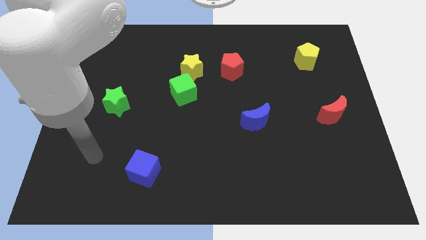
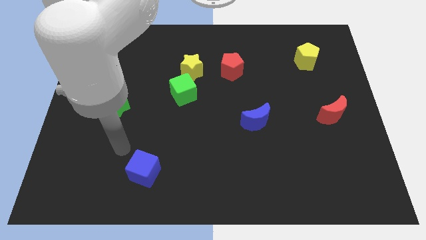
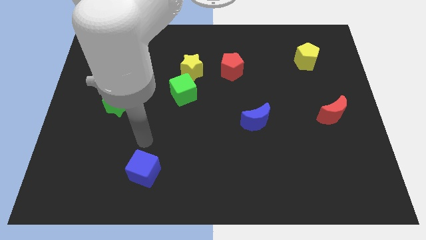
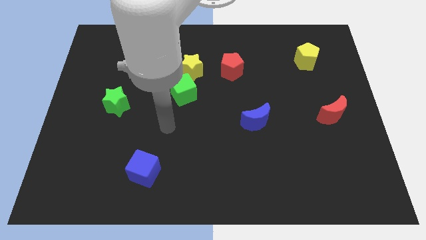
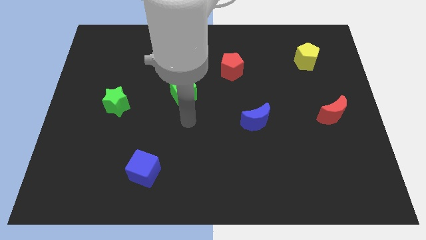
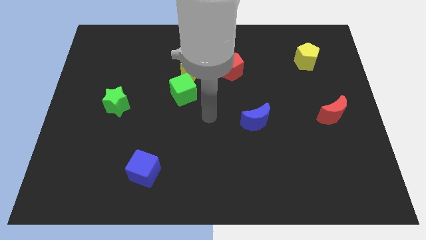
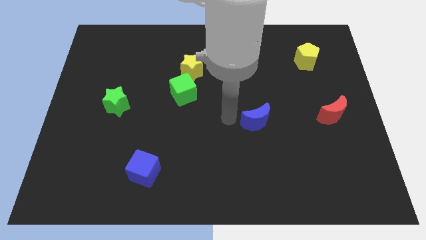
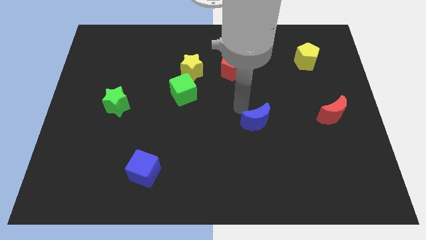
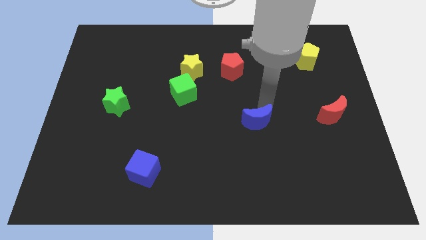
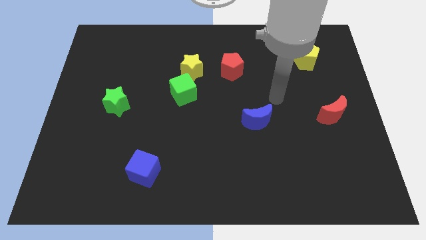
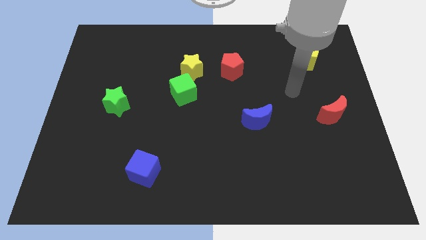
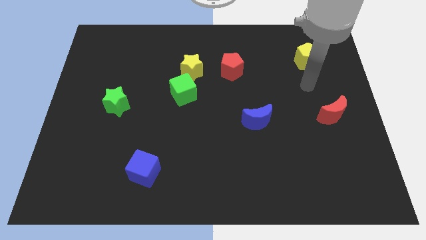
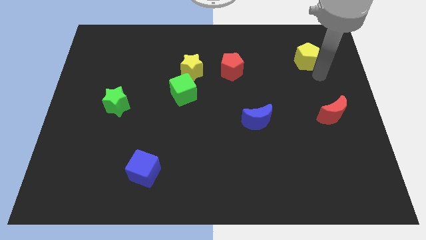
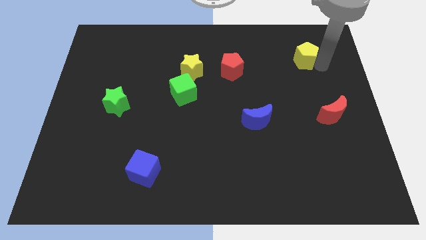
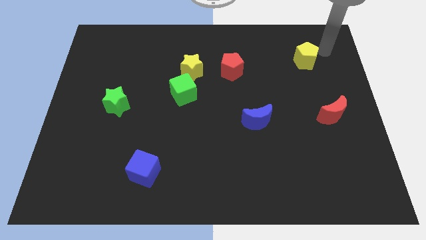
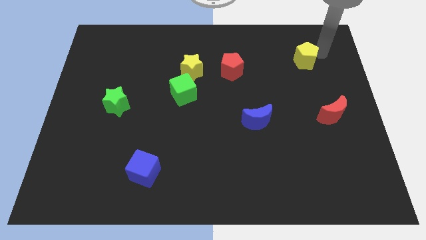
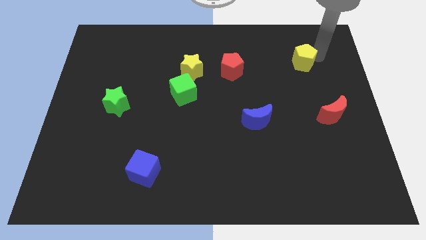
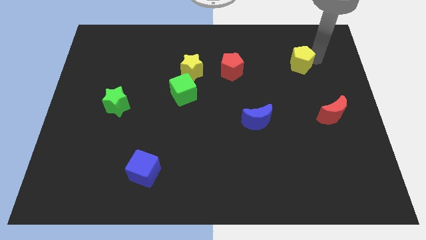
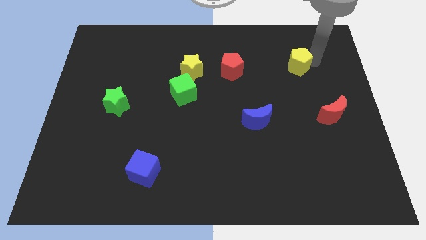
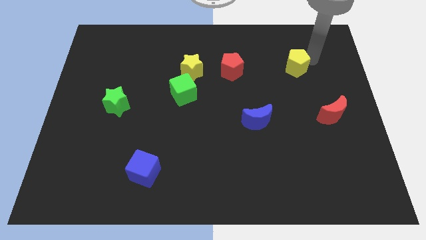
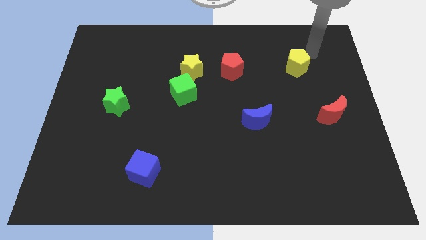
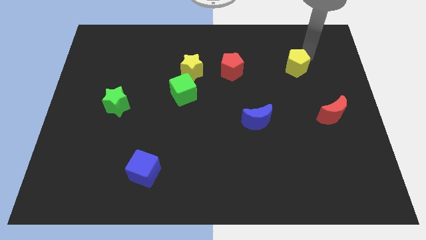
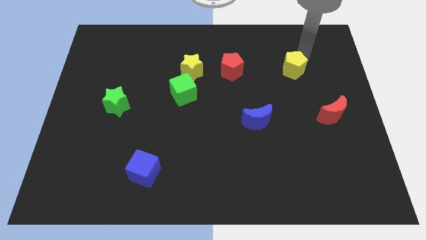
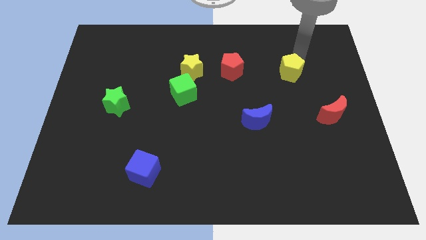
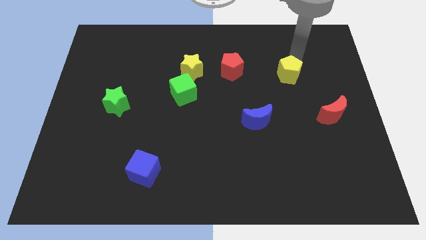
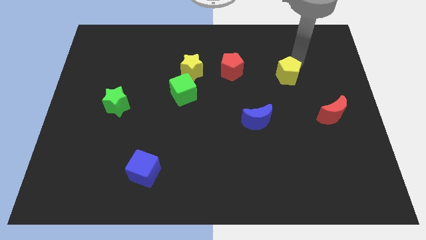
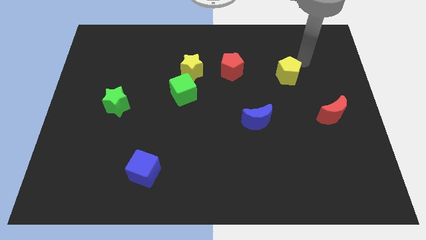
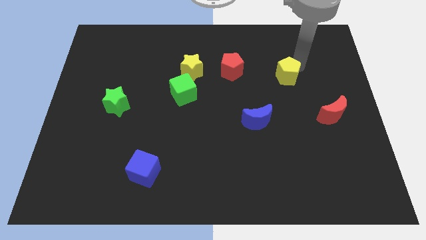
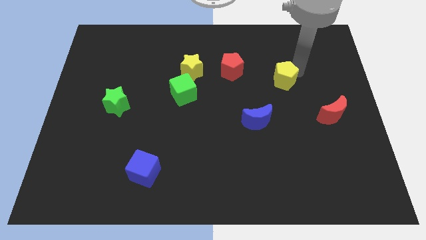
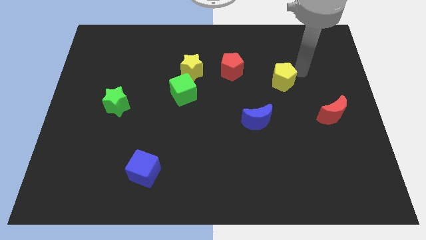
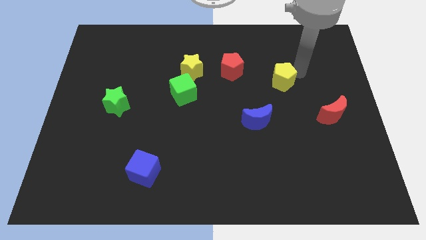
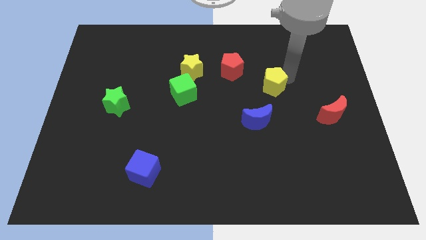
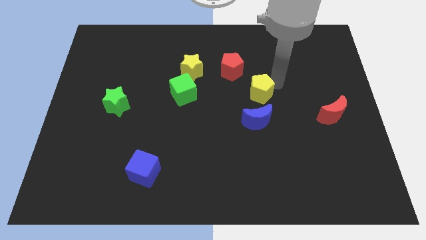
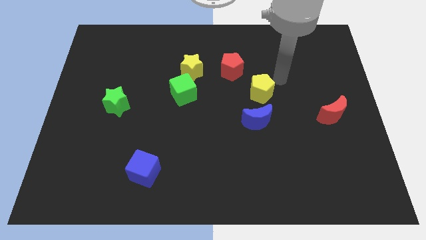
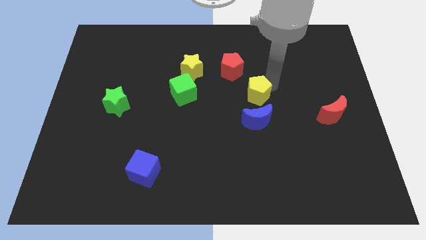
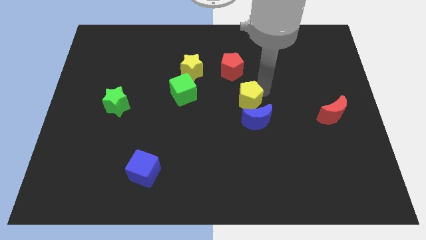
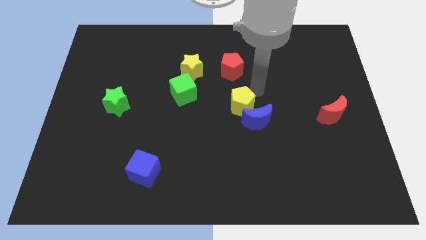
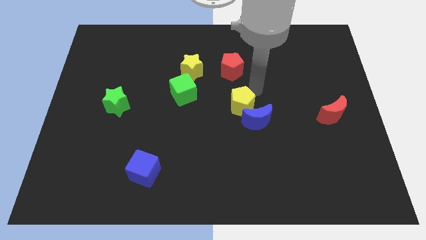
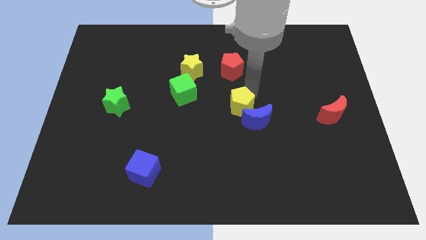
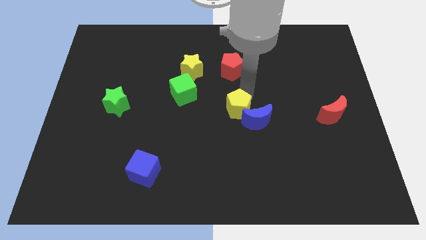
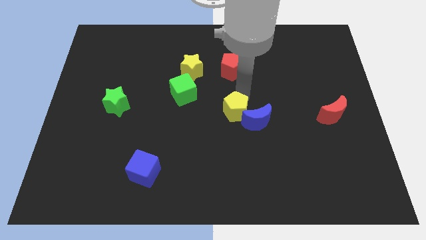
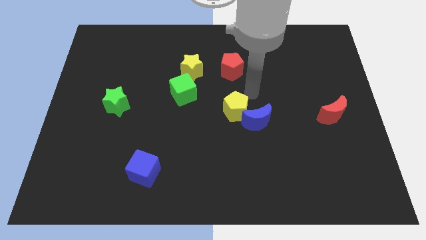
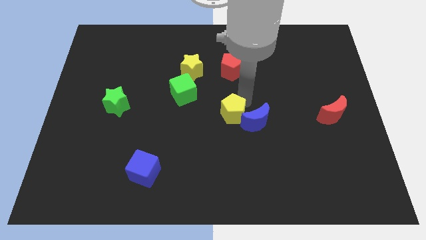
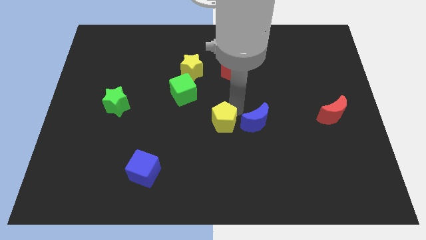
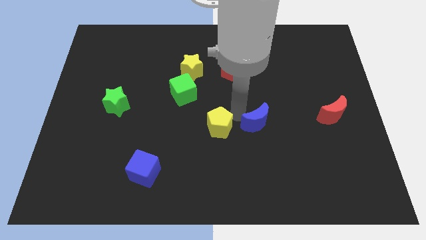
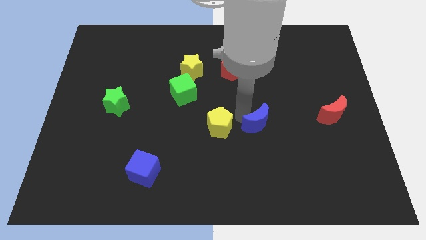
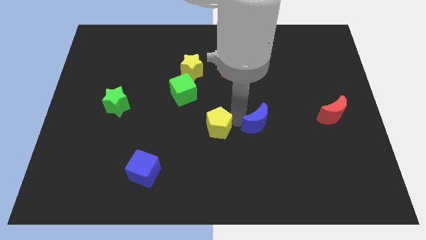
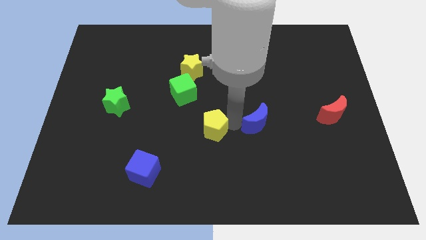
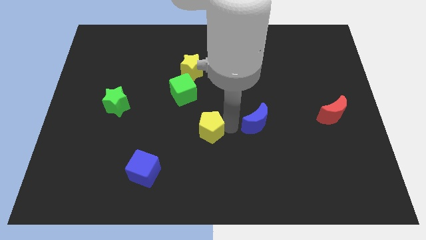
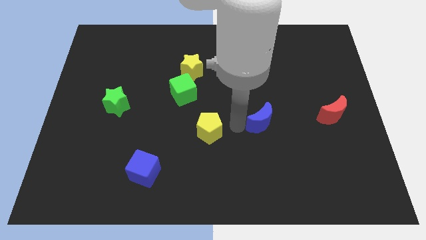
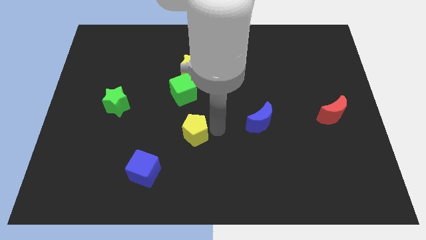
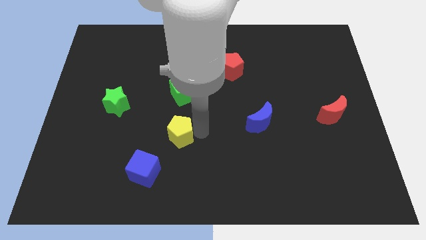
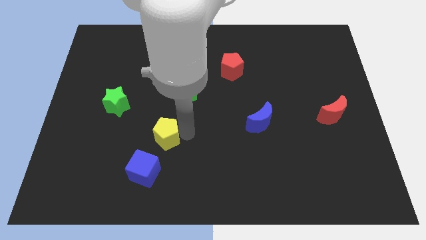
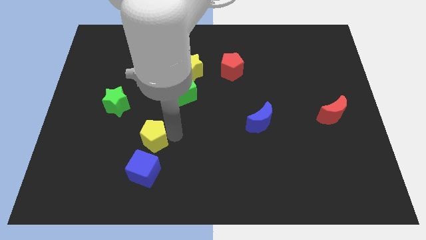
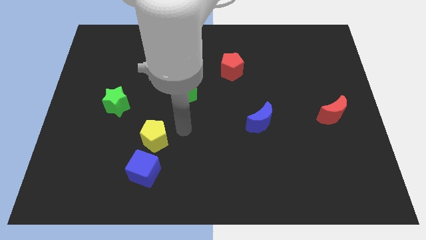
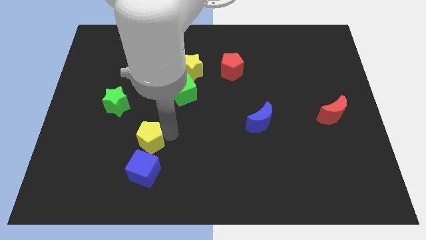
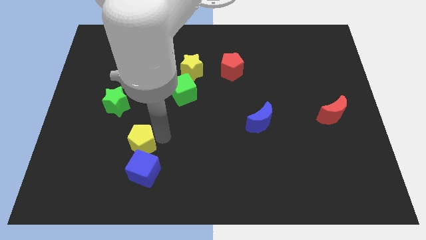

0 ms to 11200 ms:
slide the yellow pentagon diagonally up and to the left of the blue cube

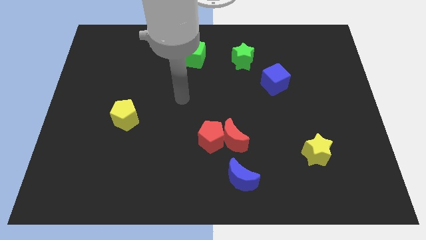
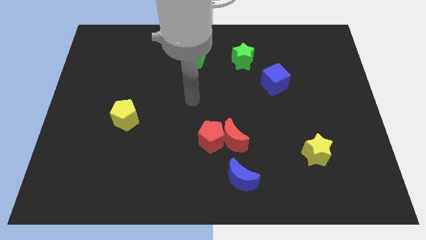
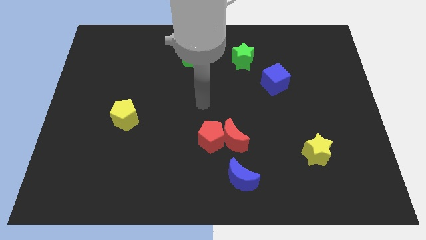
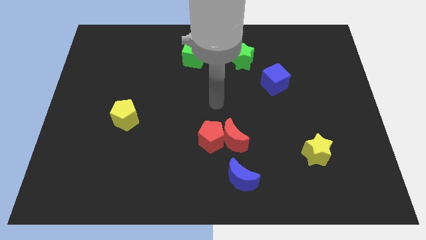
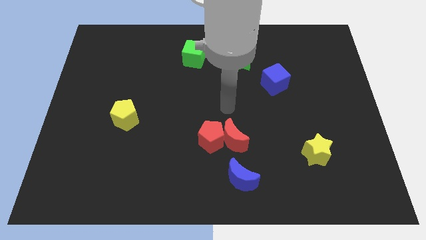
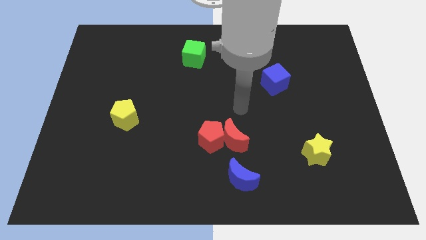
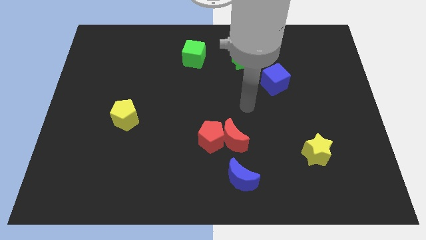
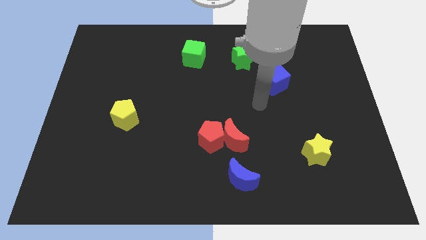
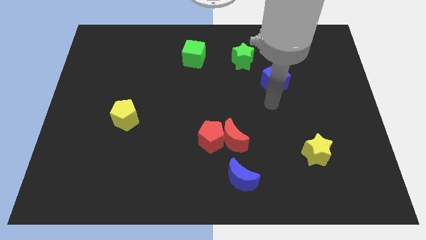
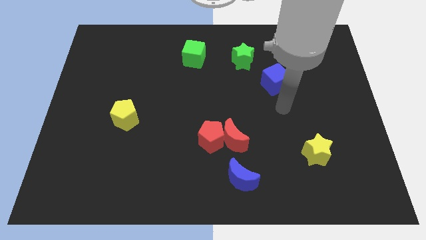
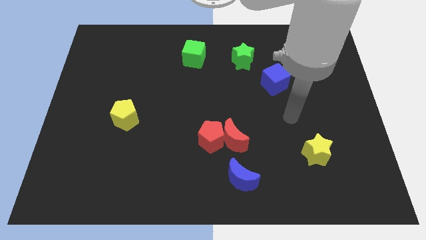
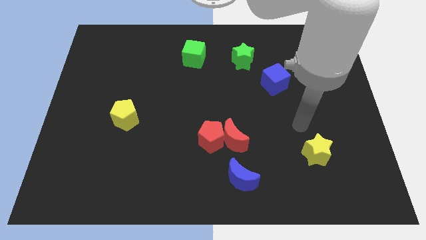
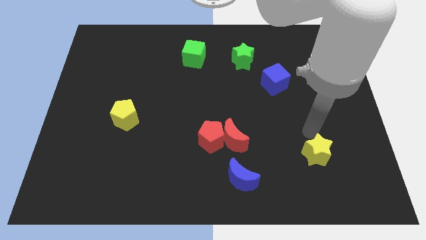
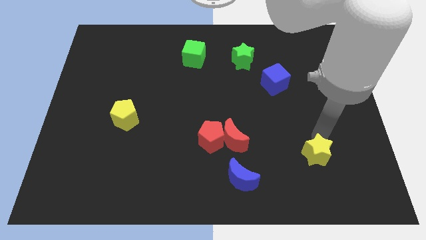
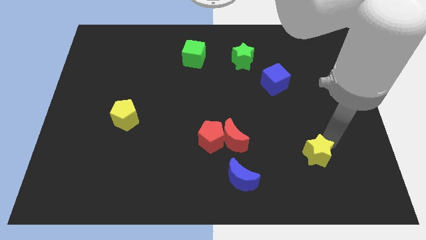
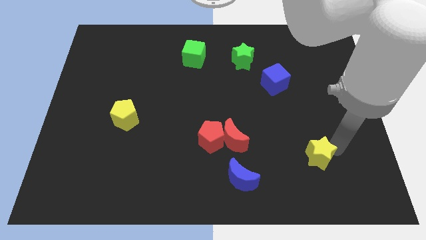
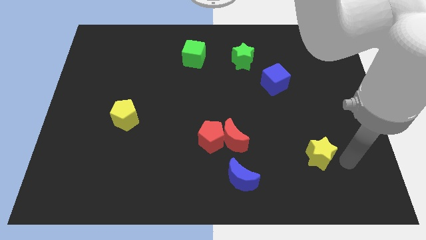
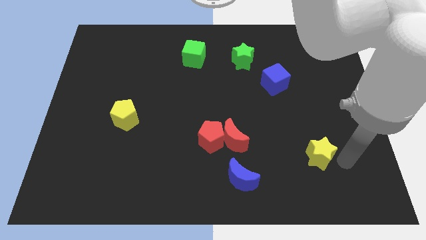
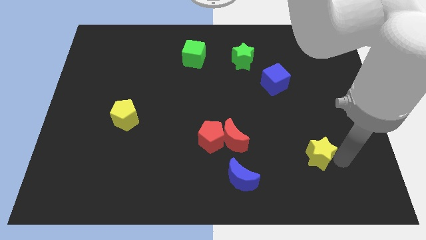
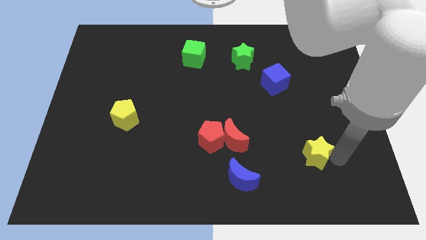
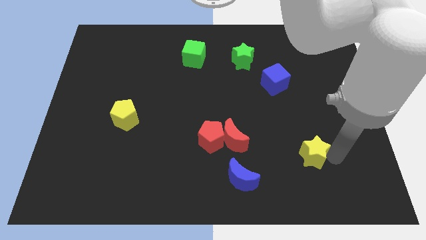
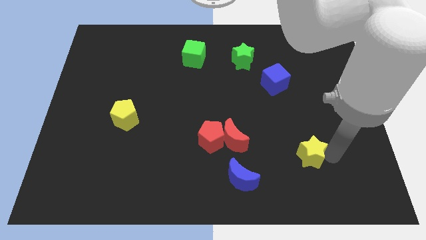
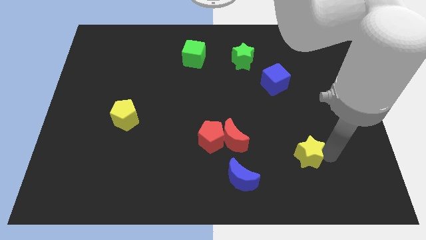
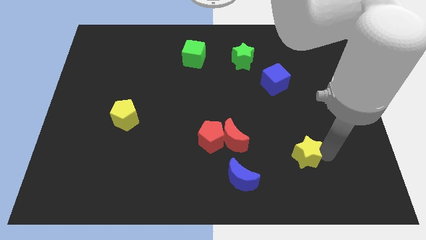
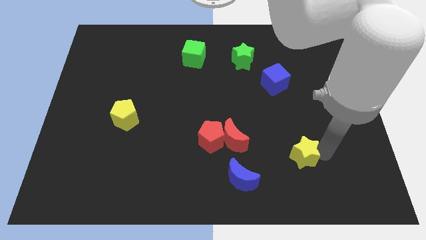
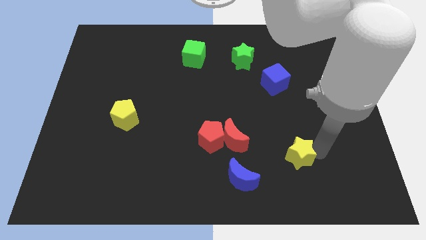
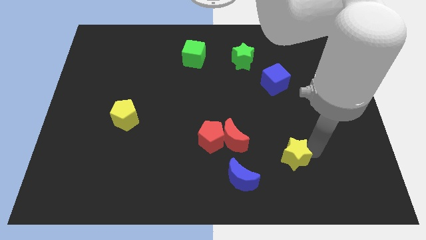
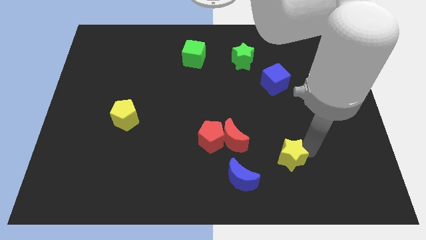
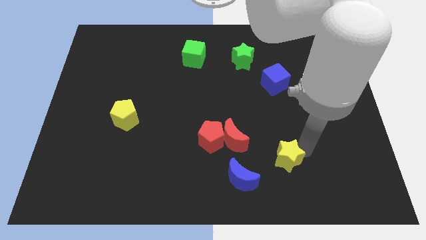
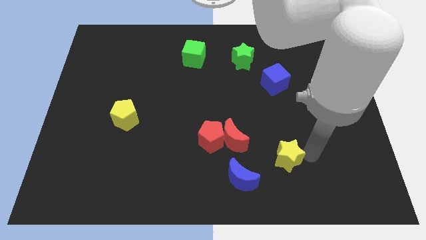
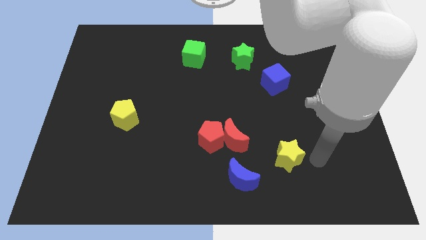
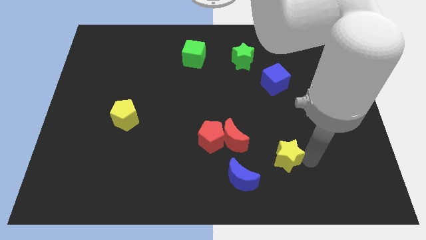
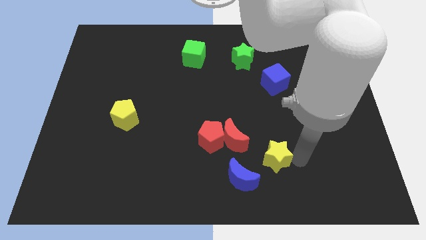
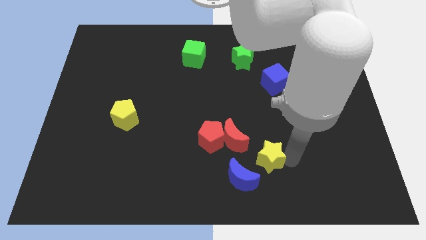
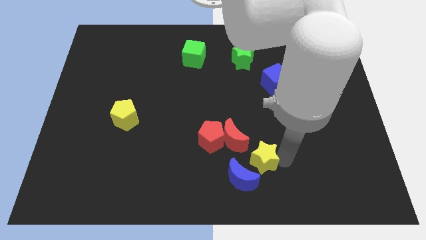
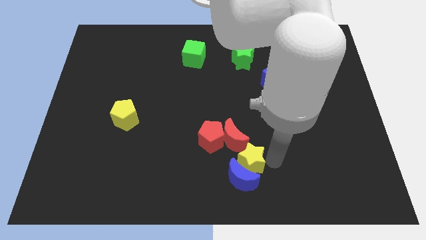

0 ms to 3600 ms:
move the yellow star diagonally up and to the left of the blue moon
